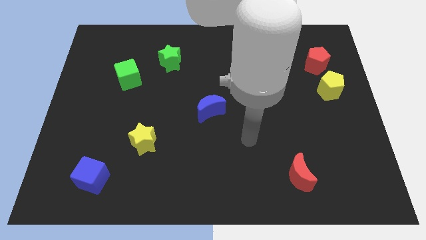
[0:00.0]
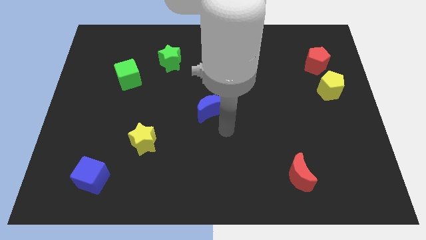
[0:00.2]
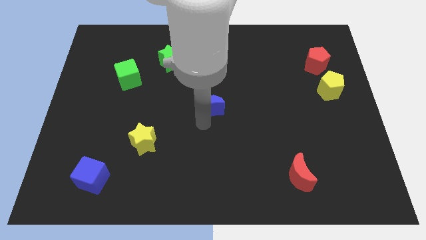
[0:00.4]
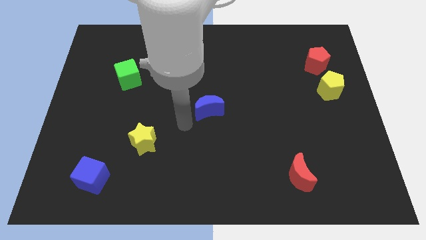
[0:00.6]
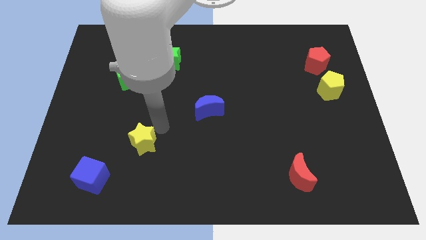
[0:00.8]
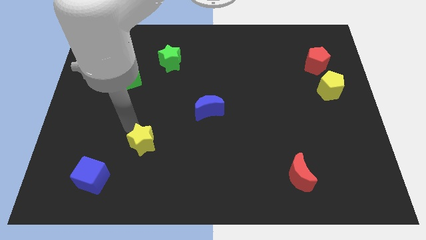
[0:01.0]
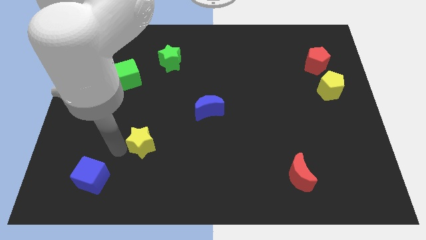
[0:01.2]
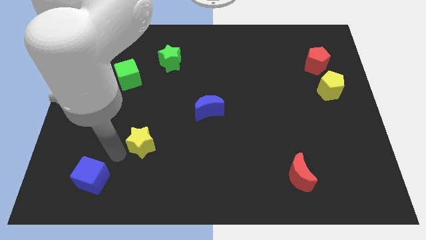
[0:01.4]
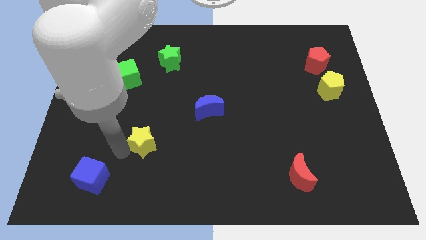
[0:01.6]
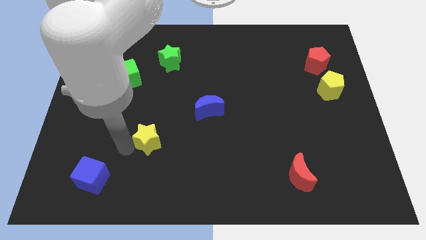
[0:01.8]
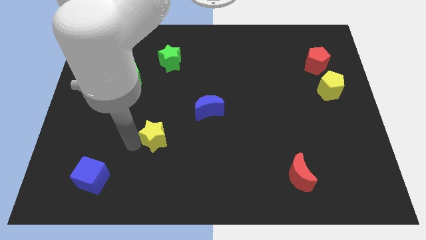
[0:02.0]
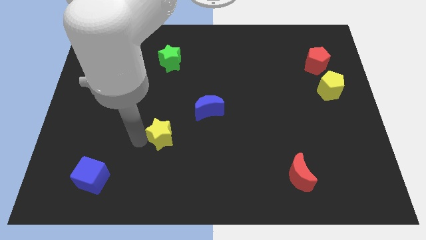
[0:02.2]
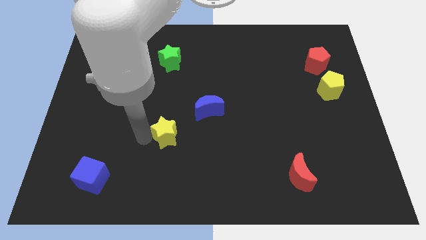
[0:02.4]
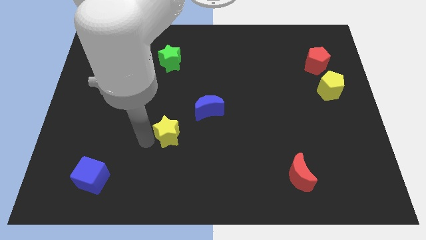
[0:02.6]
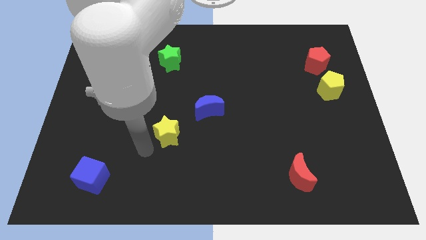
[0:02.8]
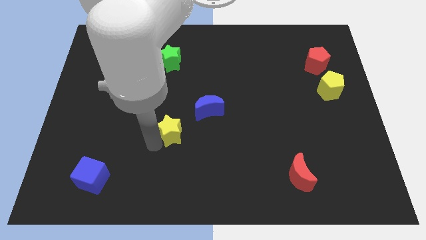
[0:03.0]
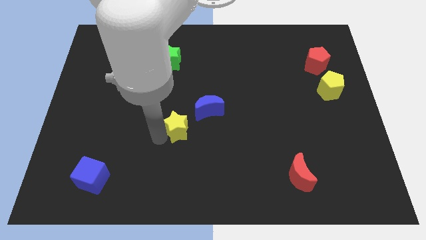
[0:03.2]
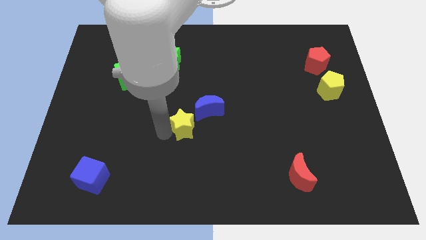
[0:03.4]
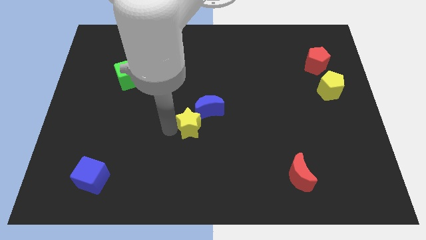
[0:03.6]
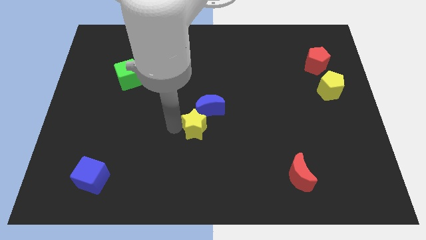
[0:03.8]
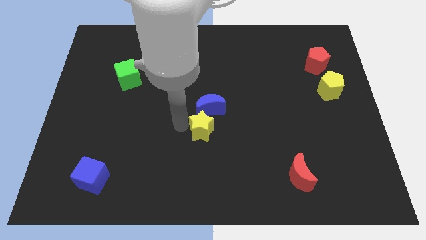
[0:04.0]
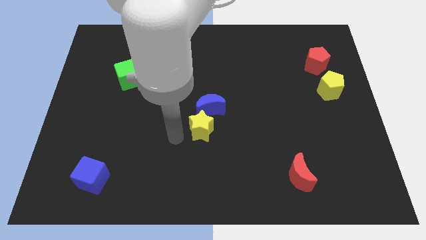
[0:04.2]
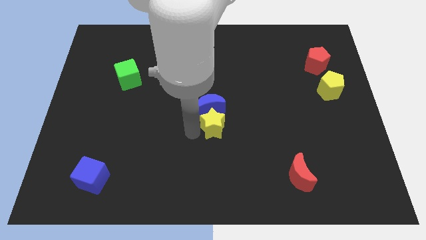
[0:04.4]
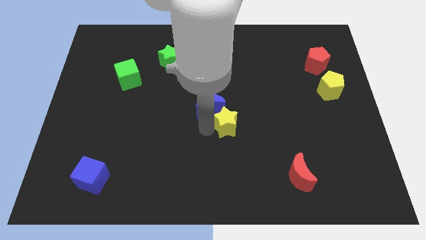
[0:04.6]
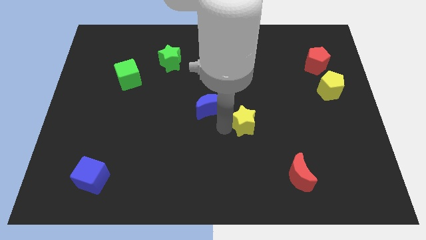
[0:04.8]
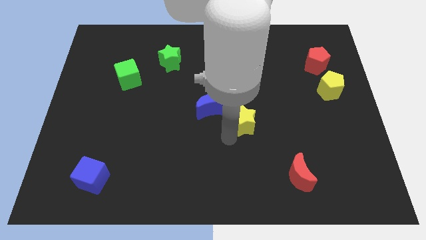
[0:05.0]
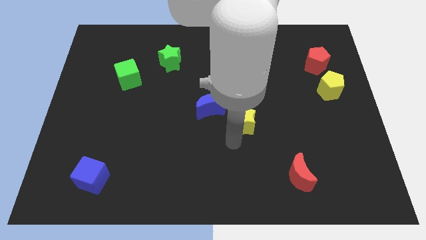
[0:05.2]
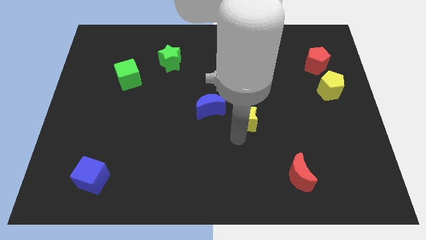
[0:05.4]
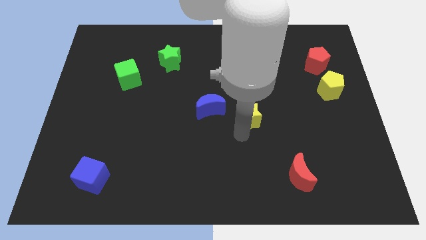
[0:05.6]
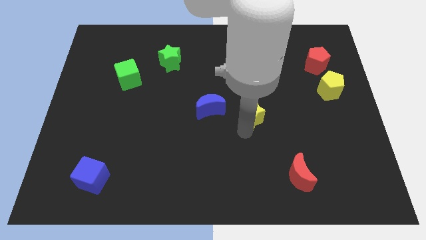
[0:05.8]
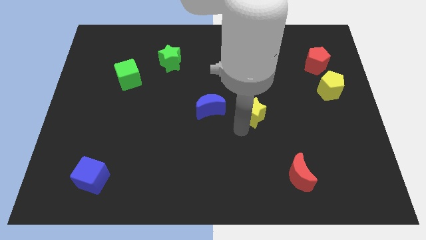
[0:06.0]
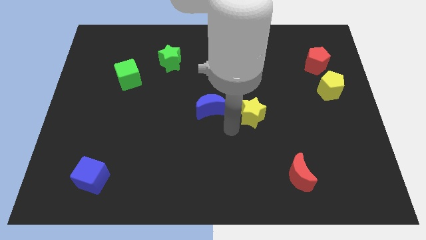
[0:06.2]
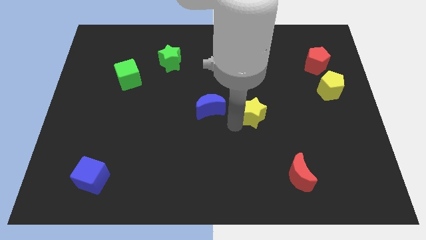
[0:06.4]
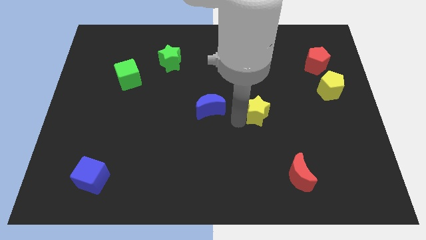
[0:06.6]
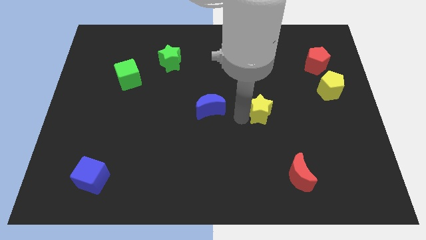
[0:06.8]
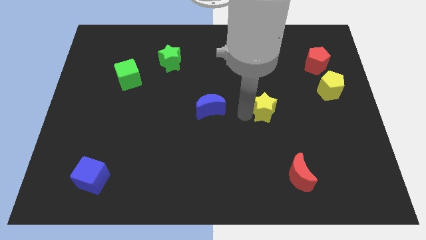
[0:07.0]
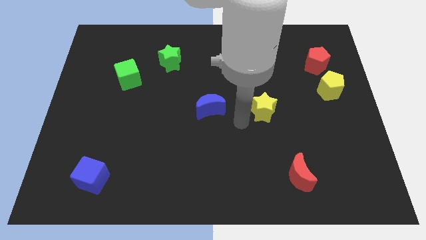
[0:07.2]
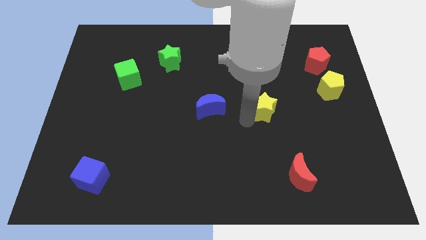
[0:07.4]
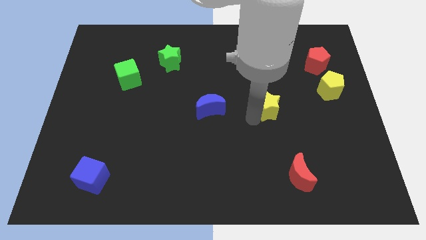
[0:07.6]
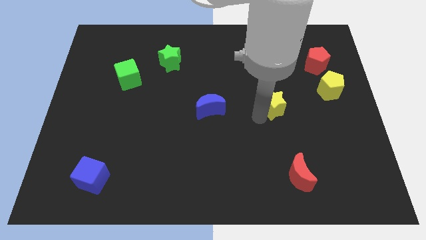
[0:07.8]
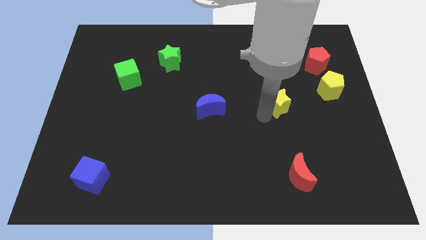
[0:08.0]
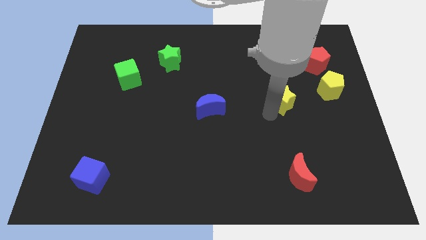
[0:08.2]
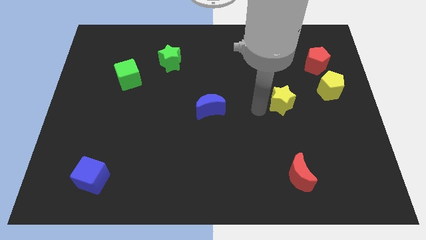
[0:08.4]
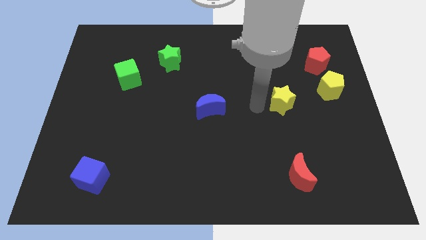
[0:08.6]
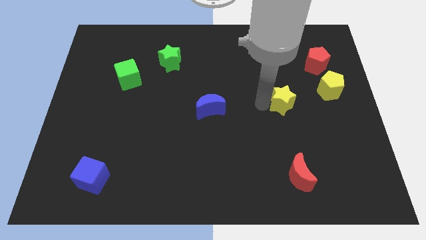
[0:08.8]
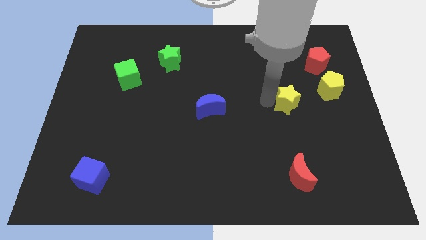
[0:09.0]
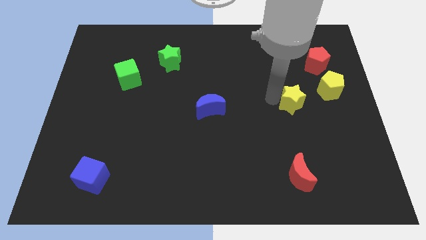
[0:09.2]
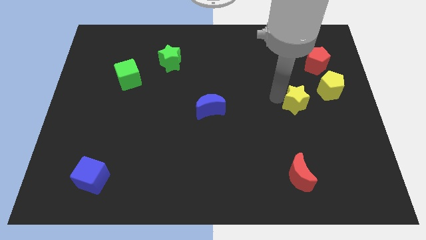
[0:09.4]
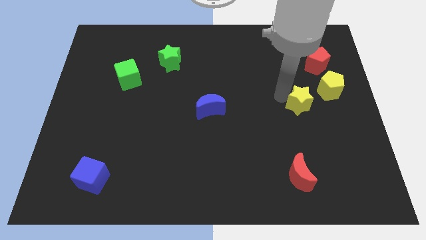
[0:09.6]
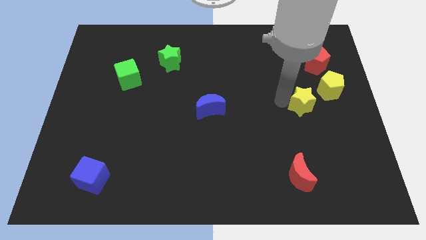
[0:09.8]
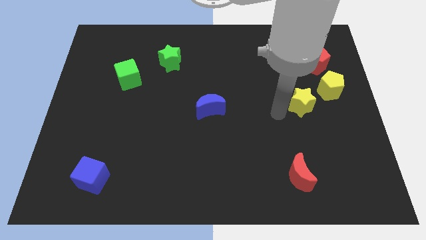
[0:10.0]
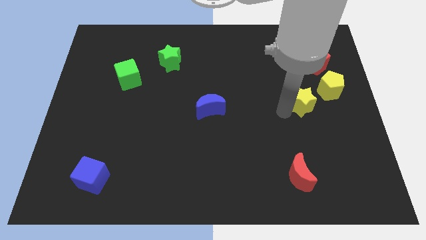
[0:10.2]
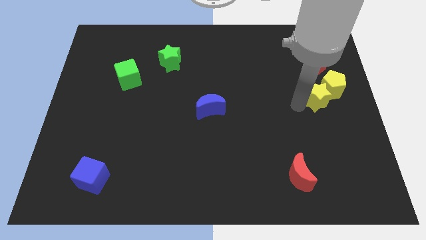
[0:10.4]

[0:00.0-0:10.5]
put the yellow star close to the yellow pentagon

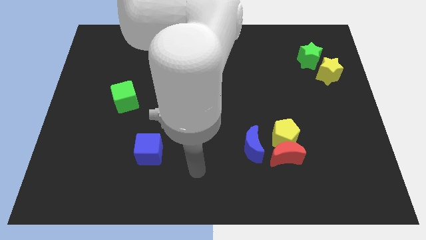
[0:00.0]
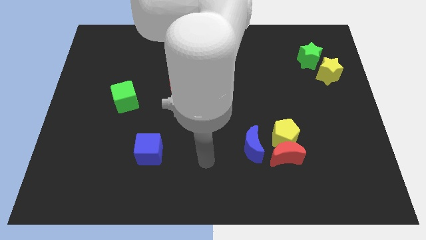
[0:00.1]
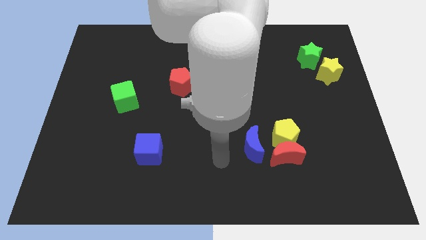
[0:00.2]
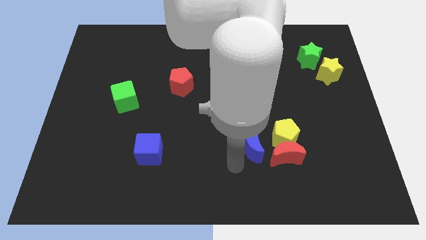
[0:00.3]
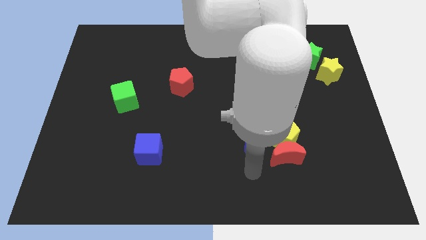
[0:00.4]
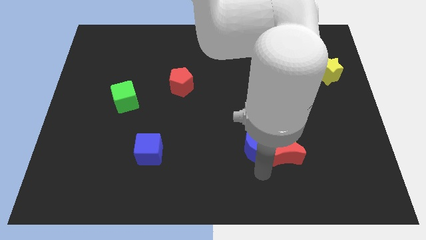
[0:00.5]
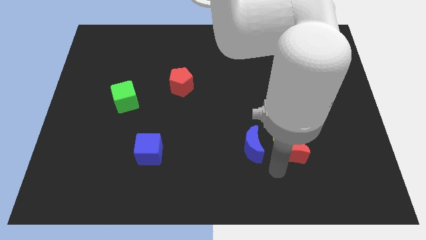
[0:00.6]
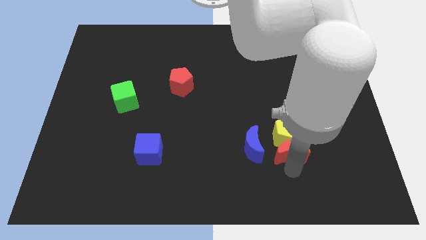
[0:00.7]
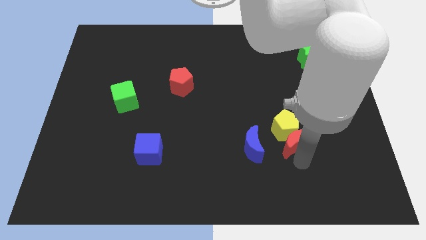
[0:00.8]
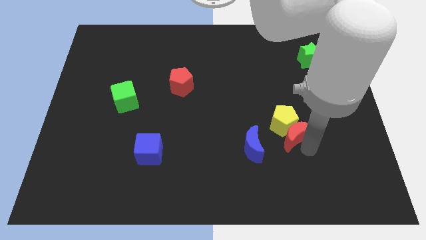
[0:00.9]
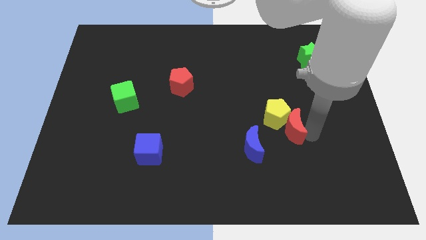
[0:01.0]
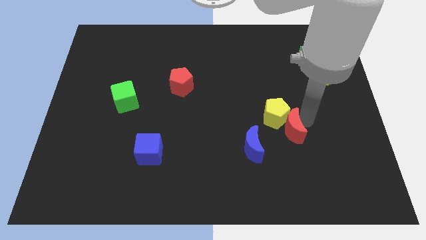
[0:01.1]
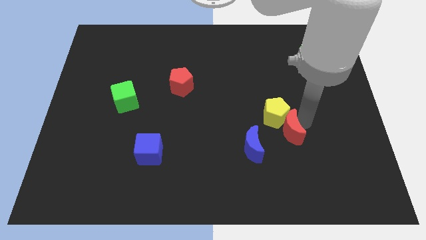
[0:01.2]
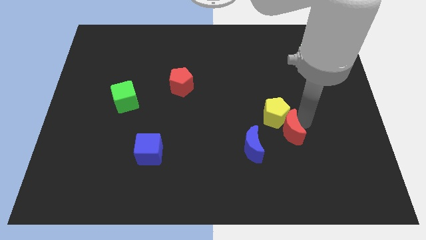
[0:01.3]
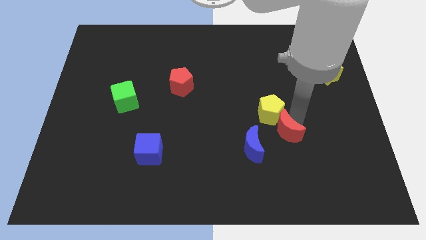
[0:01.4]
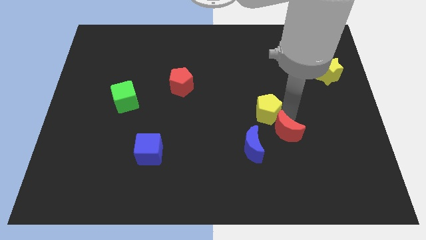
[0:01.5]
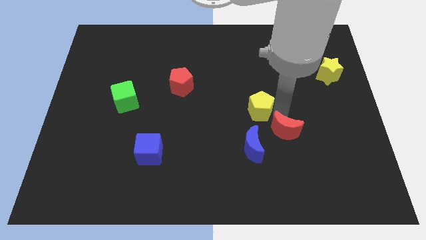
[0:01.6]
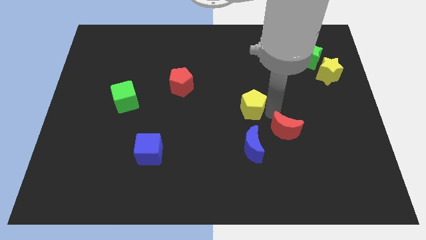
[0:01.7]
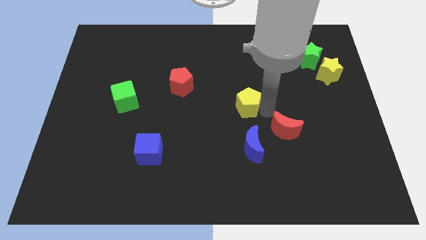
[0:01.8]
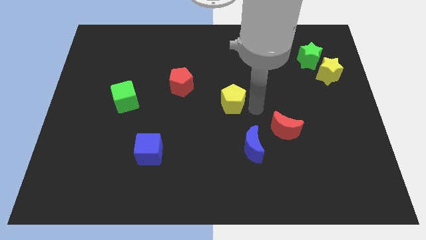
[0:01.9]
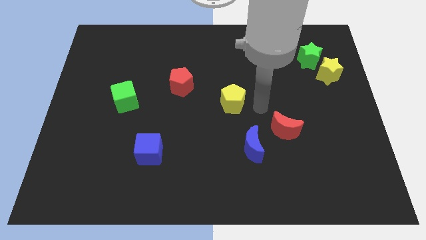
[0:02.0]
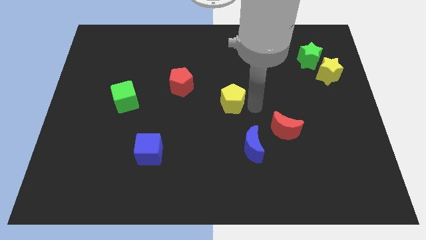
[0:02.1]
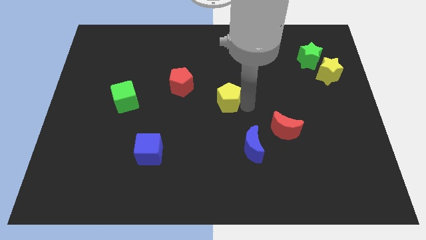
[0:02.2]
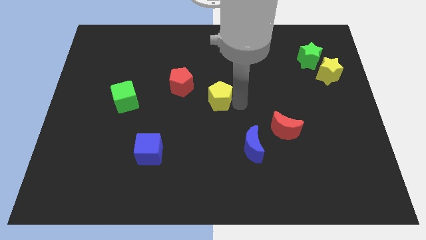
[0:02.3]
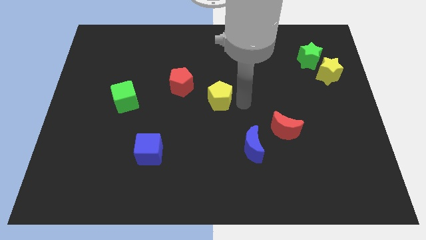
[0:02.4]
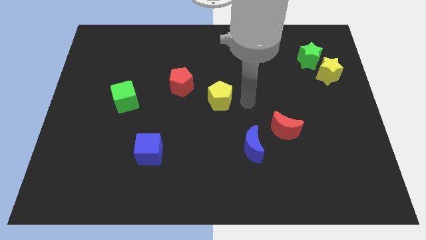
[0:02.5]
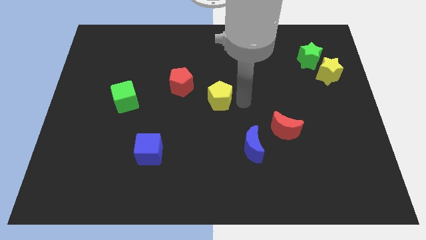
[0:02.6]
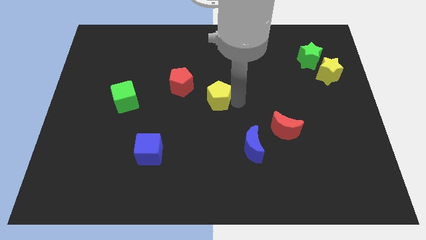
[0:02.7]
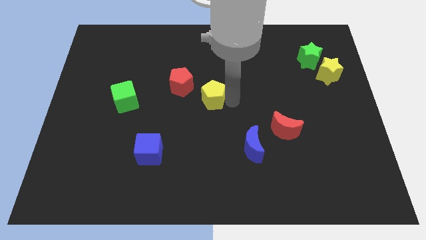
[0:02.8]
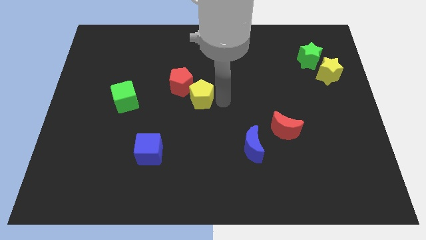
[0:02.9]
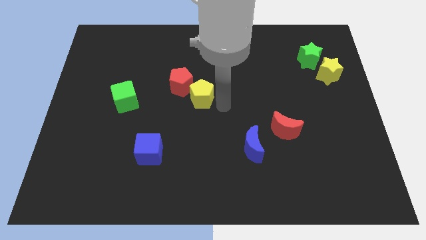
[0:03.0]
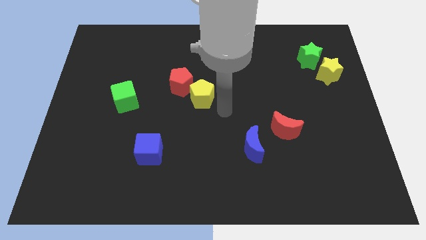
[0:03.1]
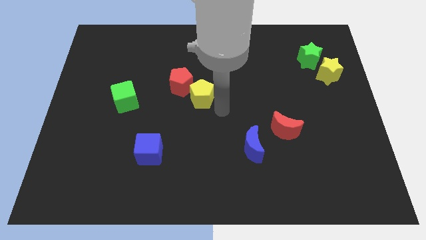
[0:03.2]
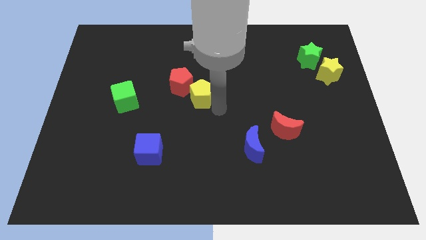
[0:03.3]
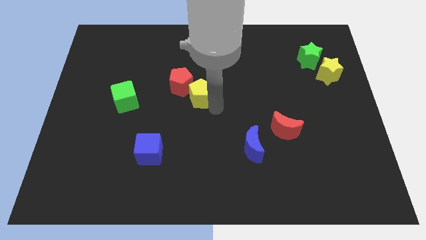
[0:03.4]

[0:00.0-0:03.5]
move the yellow pentagon next to the red pentagon
